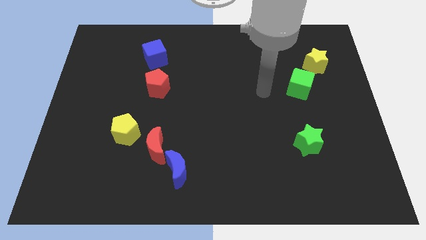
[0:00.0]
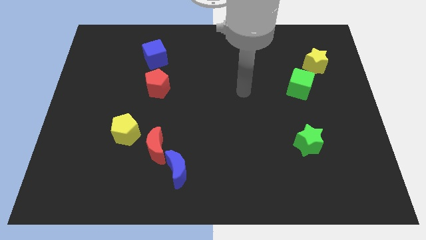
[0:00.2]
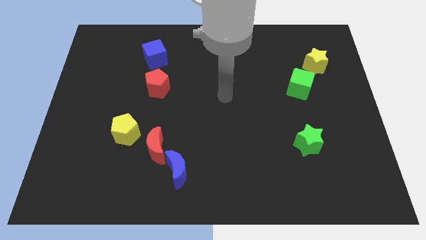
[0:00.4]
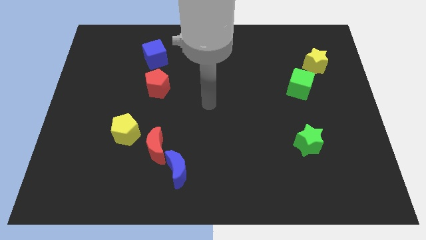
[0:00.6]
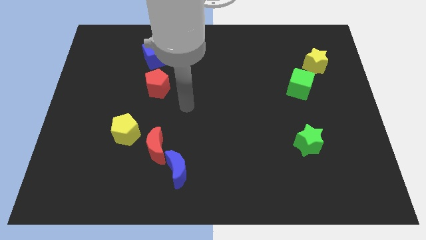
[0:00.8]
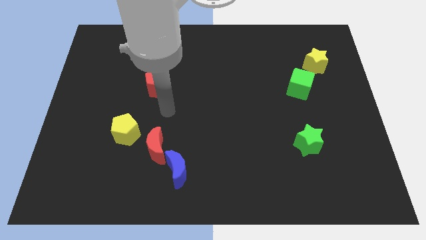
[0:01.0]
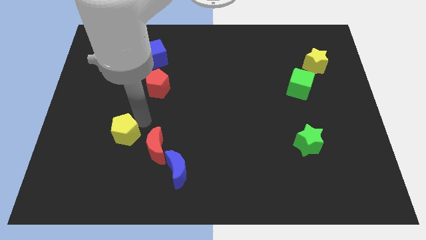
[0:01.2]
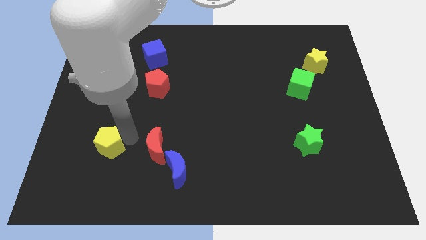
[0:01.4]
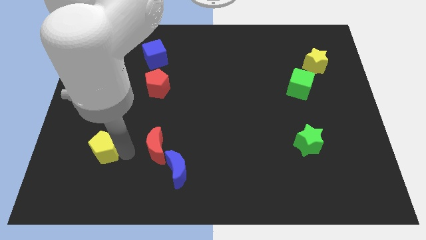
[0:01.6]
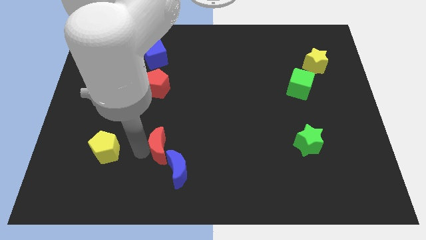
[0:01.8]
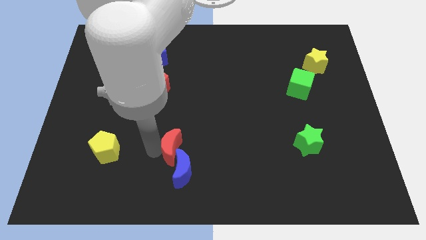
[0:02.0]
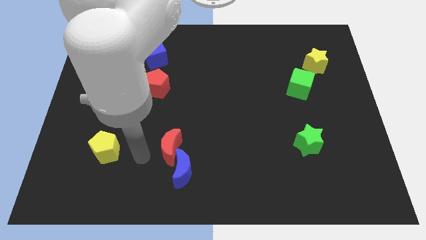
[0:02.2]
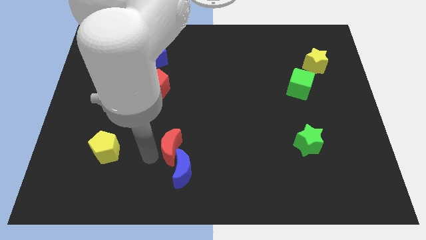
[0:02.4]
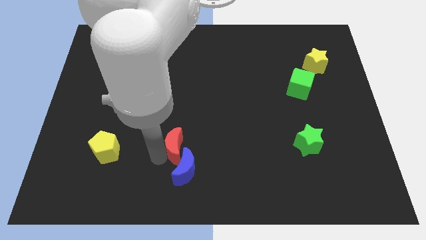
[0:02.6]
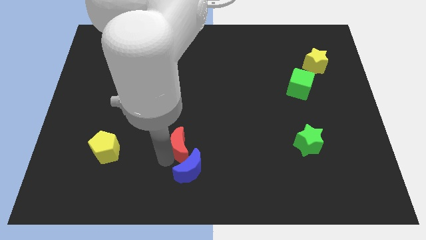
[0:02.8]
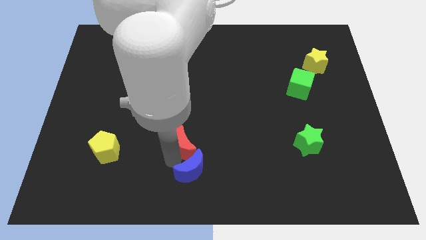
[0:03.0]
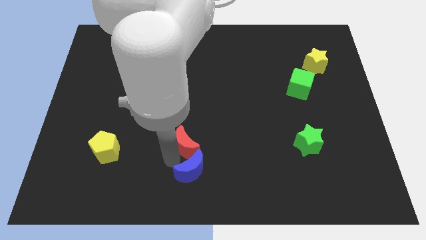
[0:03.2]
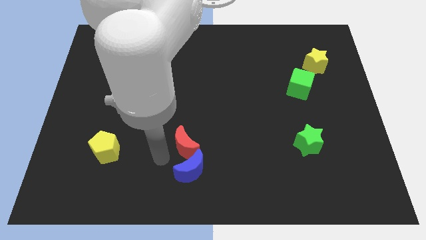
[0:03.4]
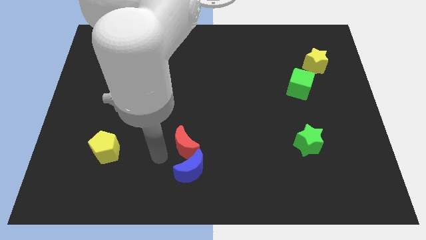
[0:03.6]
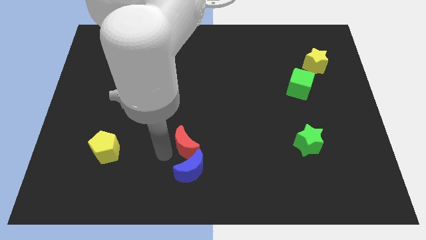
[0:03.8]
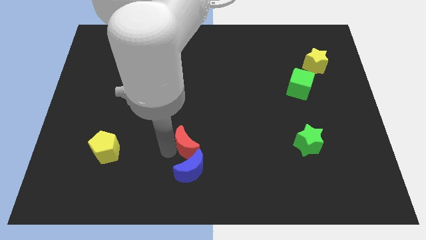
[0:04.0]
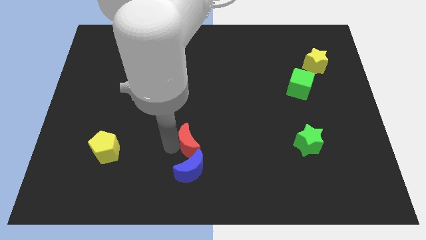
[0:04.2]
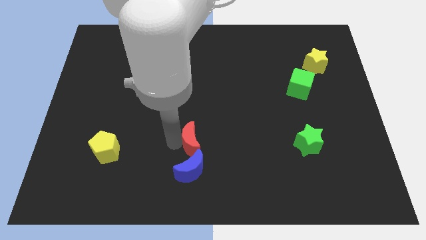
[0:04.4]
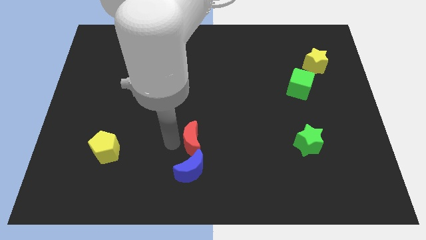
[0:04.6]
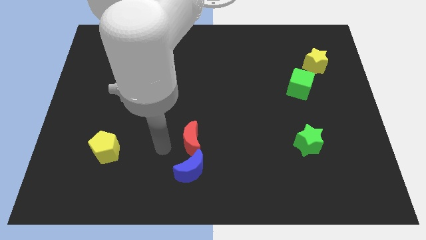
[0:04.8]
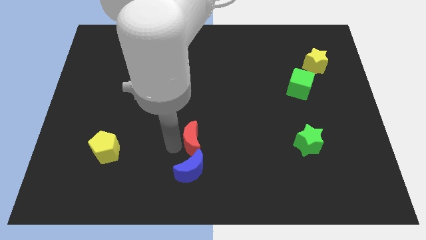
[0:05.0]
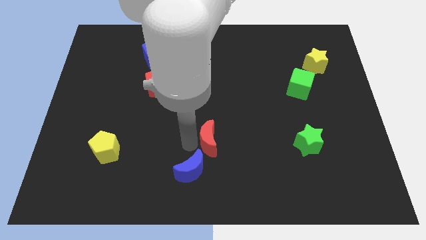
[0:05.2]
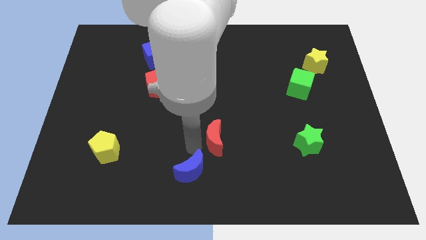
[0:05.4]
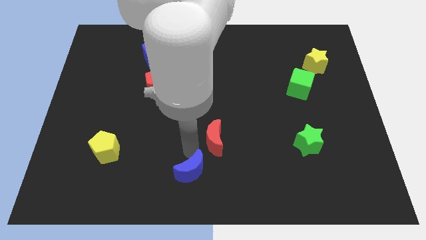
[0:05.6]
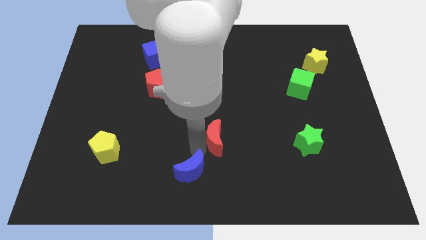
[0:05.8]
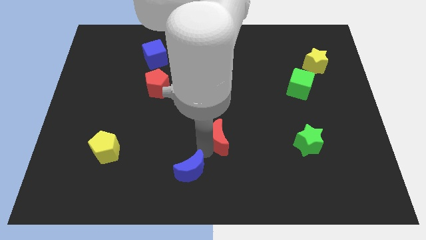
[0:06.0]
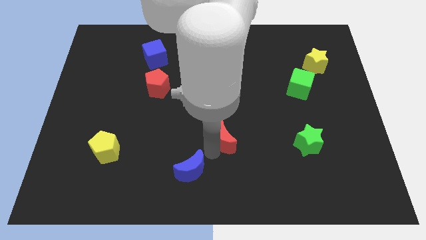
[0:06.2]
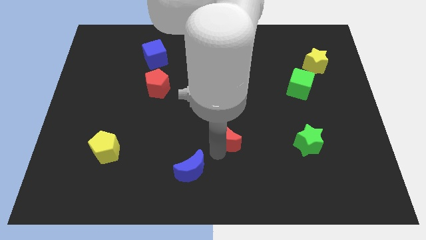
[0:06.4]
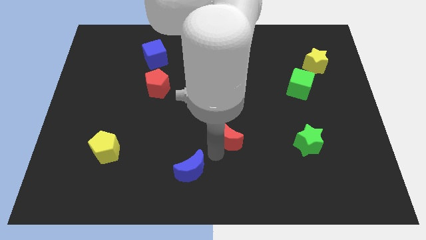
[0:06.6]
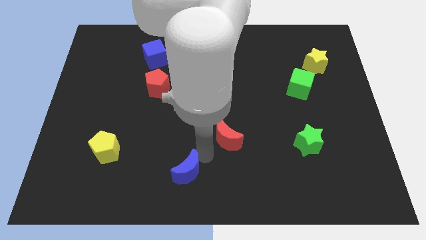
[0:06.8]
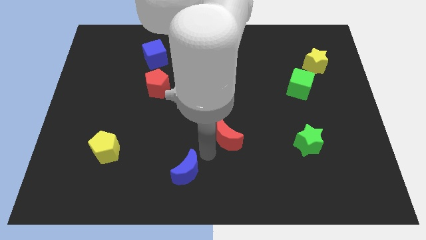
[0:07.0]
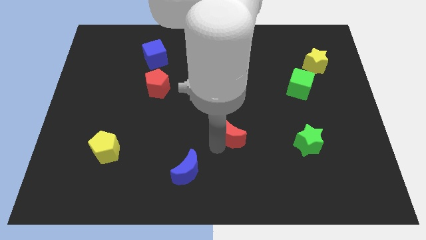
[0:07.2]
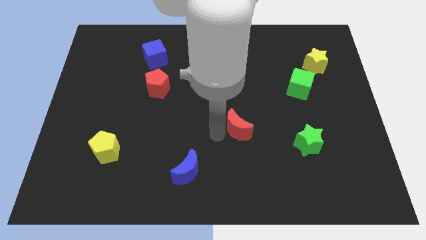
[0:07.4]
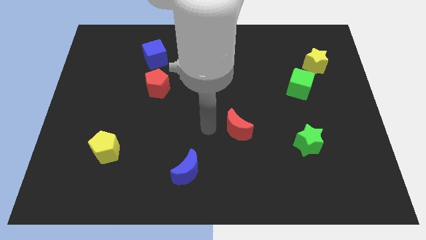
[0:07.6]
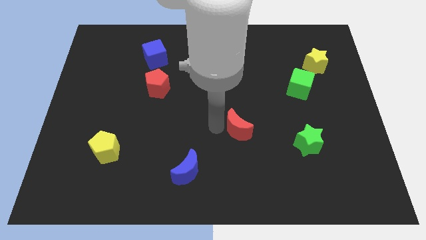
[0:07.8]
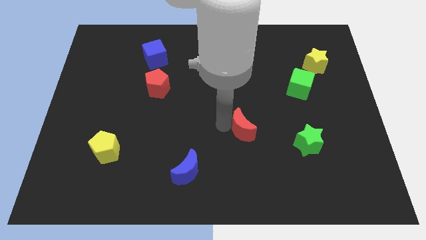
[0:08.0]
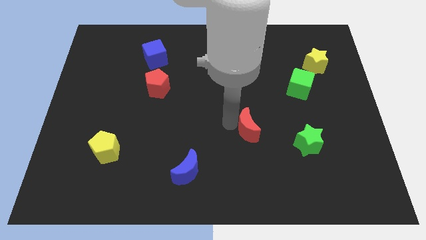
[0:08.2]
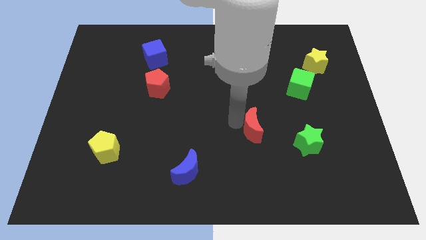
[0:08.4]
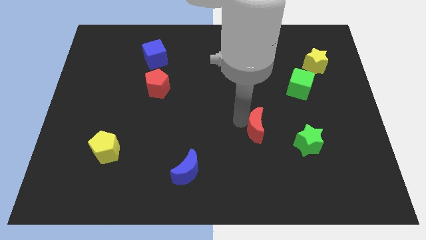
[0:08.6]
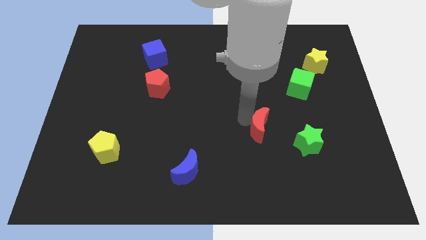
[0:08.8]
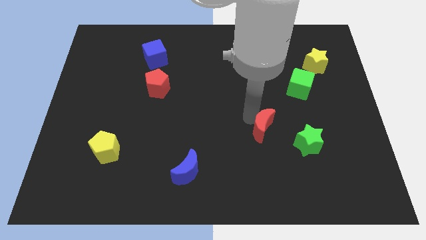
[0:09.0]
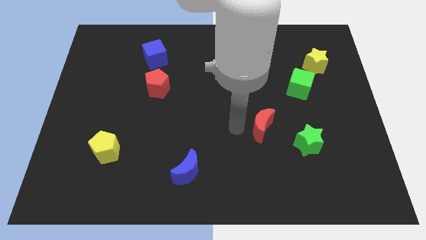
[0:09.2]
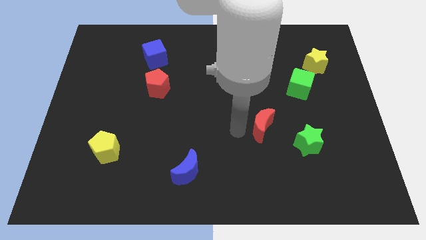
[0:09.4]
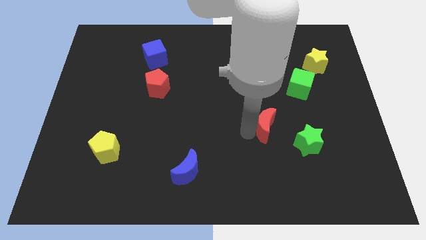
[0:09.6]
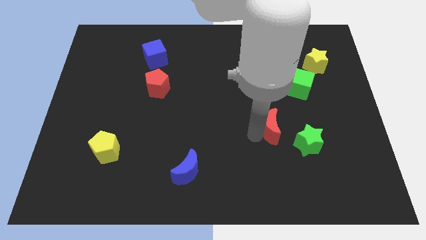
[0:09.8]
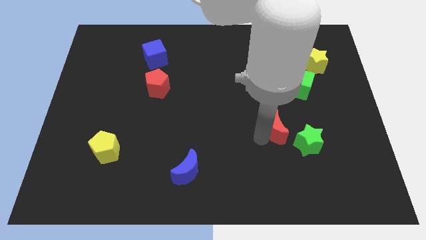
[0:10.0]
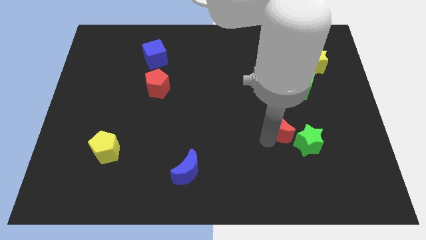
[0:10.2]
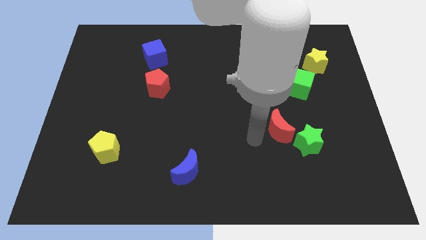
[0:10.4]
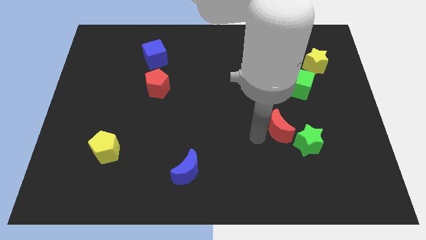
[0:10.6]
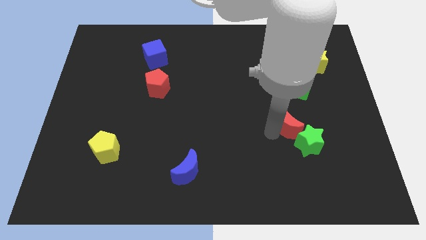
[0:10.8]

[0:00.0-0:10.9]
slide the red moon to the bottom side of the green cube

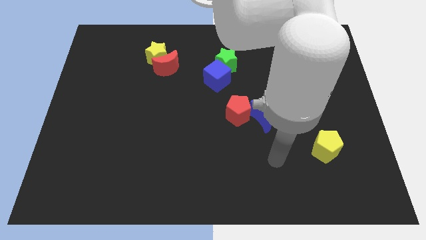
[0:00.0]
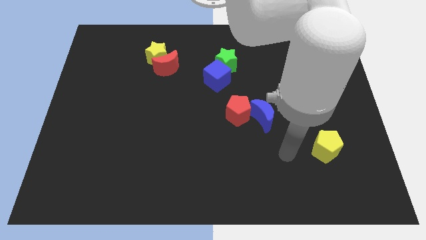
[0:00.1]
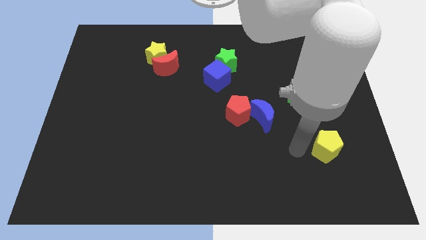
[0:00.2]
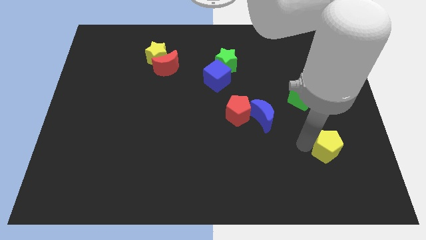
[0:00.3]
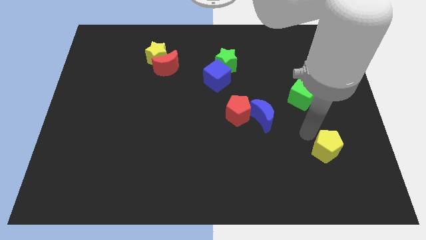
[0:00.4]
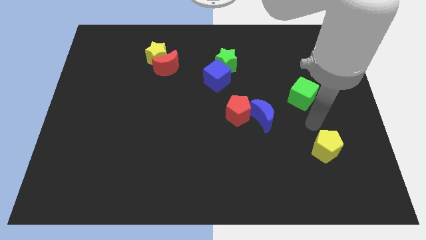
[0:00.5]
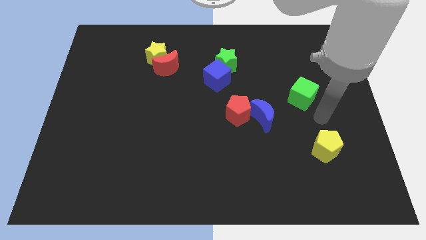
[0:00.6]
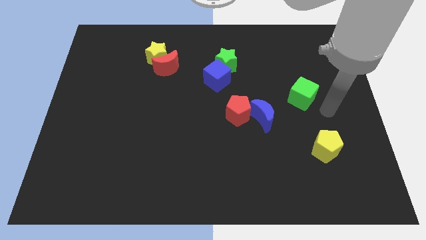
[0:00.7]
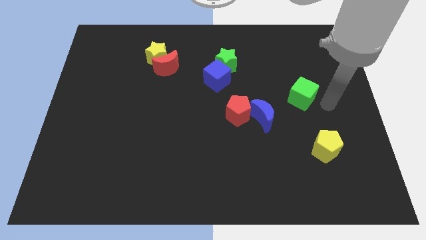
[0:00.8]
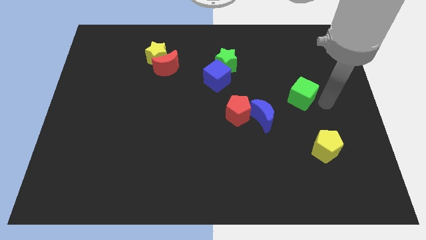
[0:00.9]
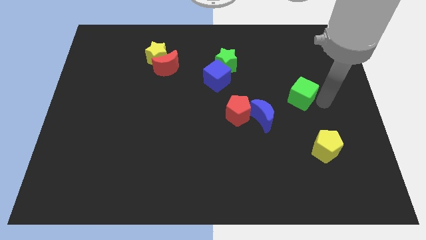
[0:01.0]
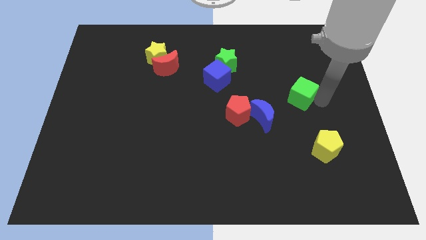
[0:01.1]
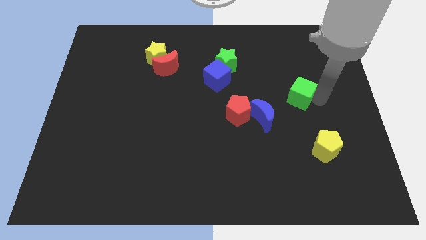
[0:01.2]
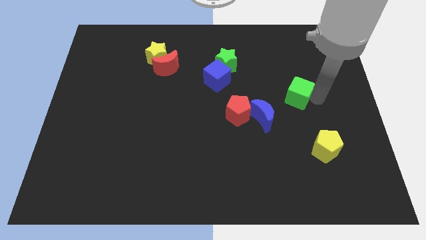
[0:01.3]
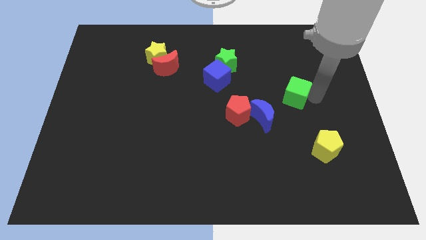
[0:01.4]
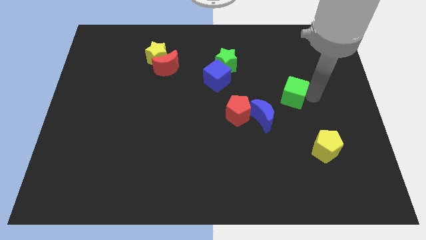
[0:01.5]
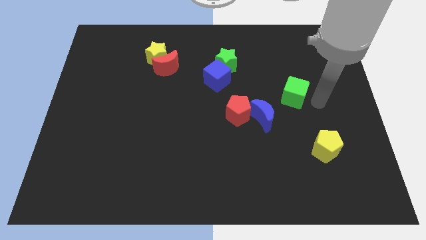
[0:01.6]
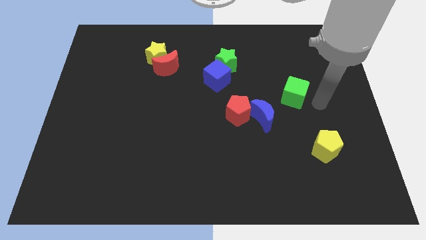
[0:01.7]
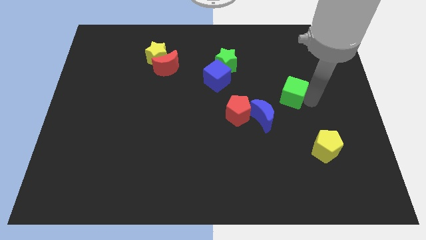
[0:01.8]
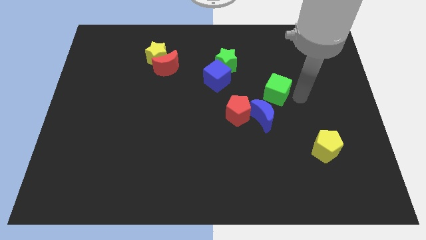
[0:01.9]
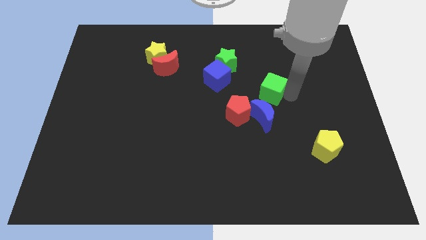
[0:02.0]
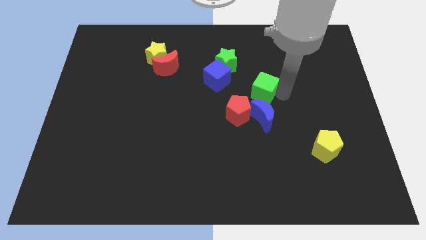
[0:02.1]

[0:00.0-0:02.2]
slide the green cube to the bottom right of the green star
